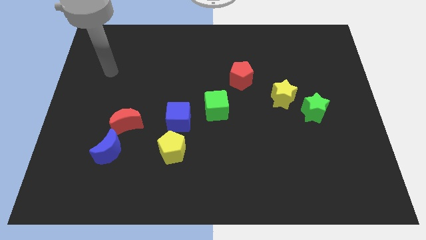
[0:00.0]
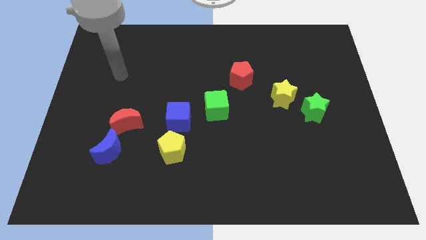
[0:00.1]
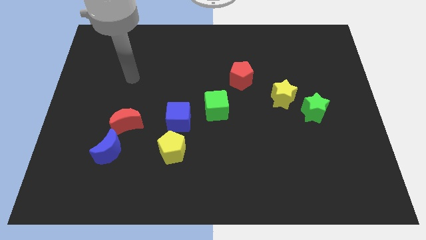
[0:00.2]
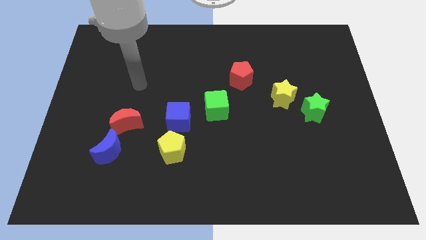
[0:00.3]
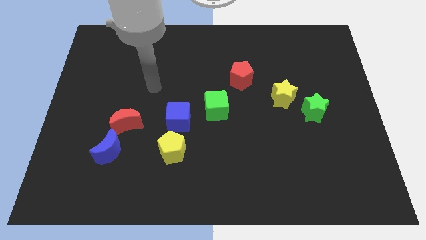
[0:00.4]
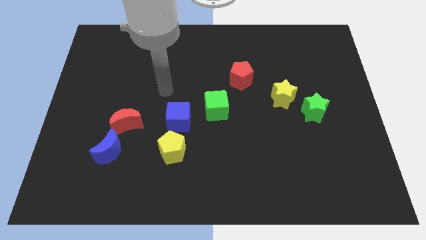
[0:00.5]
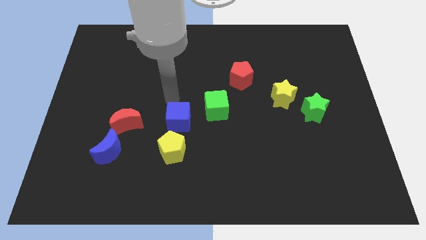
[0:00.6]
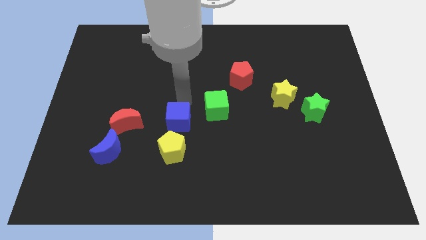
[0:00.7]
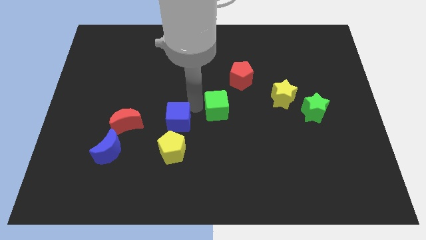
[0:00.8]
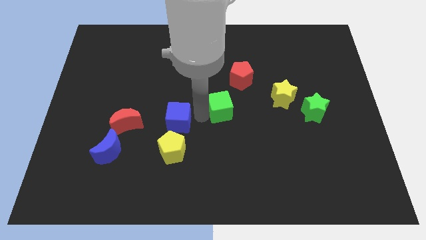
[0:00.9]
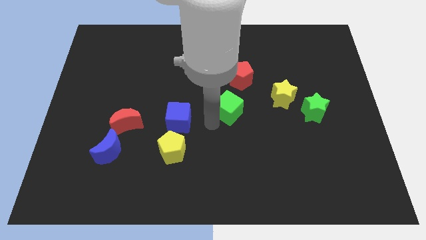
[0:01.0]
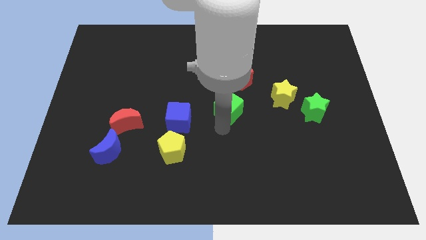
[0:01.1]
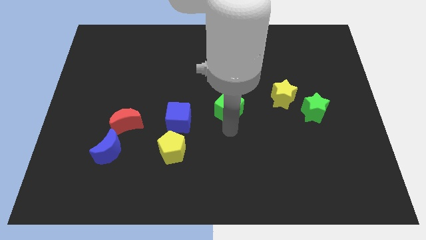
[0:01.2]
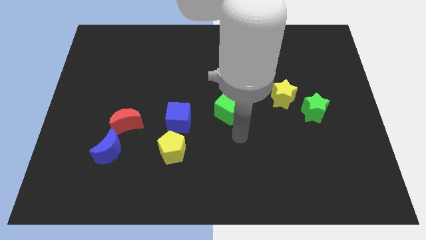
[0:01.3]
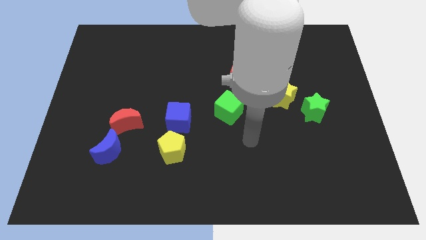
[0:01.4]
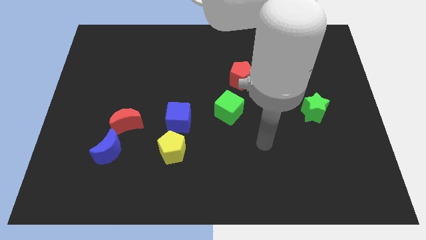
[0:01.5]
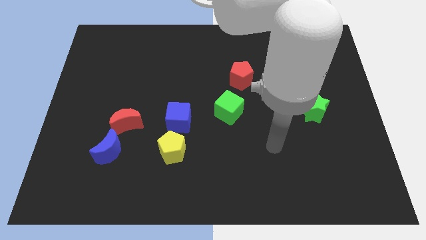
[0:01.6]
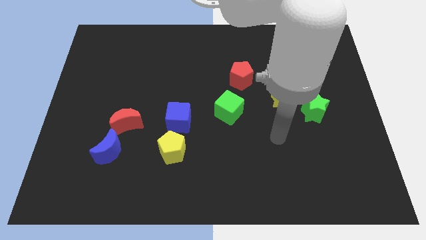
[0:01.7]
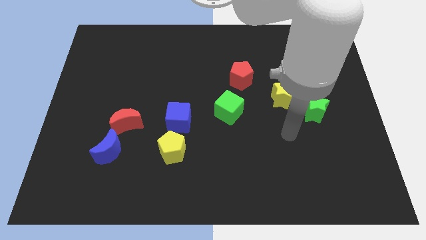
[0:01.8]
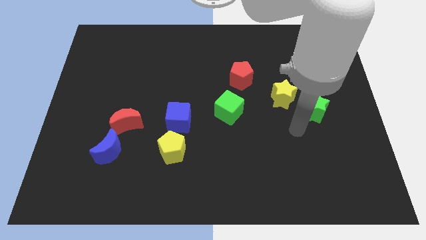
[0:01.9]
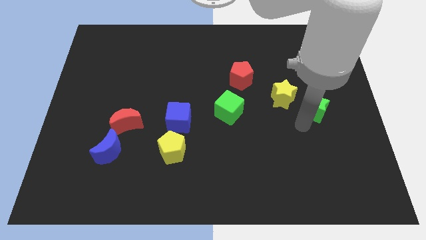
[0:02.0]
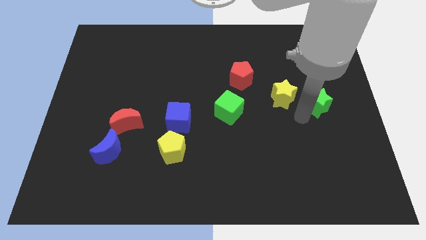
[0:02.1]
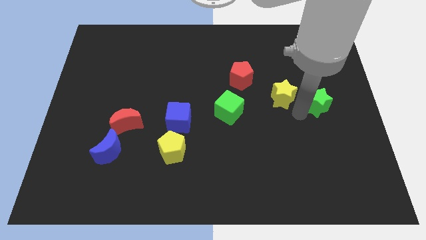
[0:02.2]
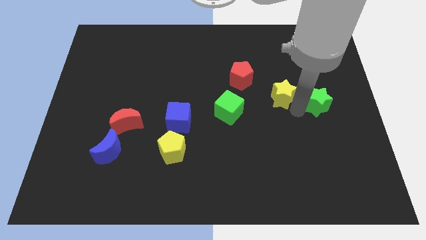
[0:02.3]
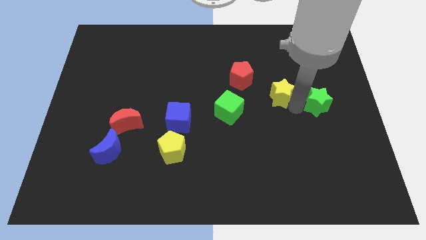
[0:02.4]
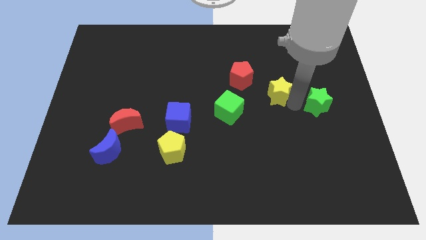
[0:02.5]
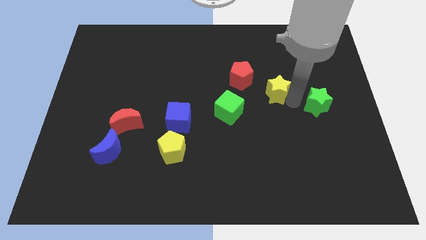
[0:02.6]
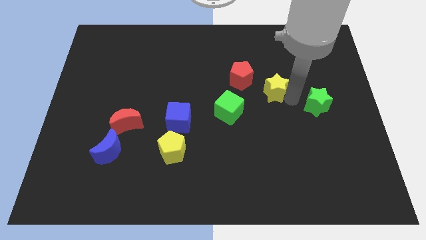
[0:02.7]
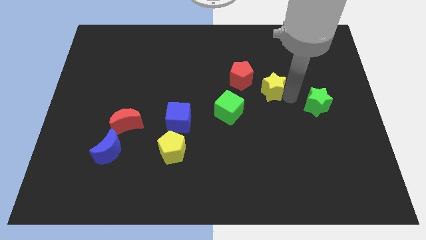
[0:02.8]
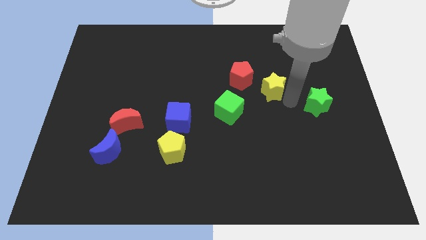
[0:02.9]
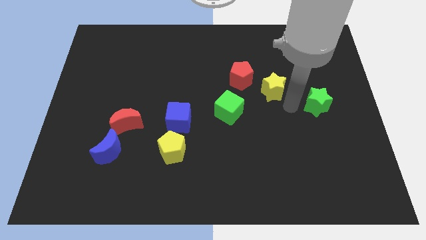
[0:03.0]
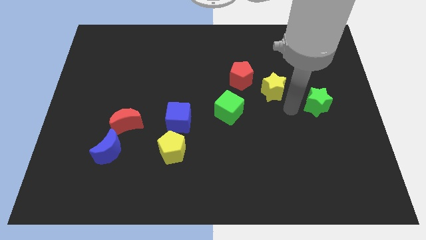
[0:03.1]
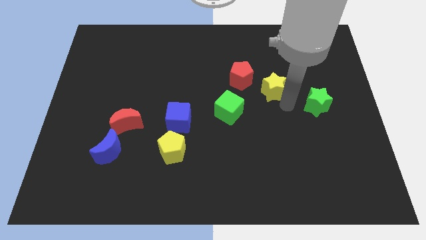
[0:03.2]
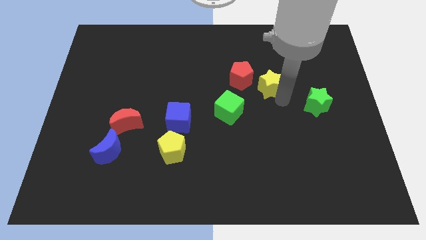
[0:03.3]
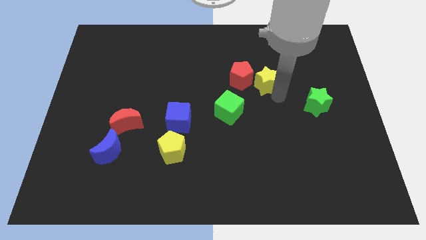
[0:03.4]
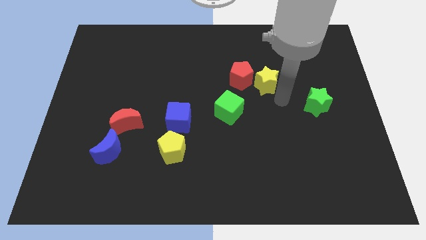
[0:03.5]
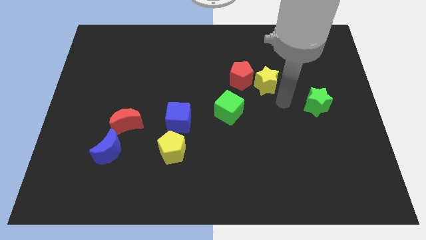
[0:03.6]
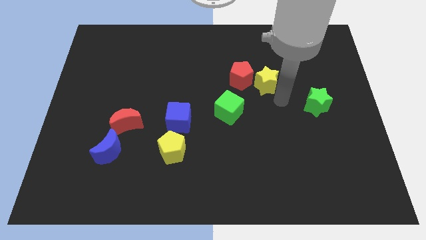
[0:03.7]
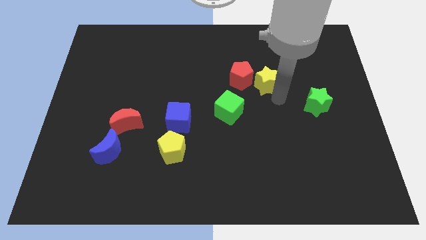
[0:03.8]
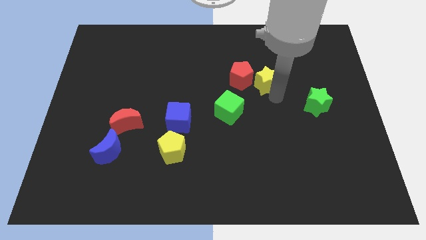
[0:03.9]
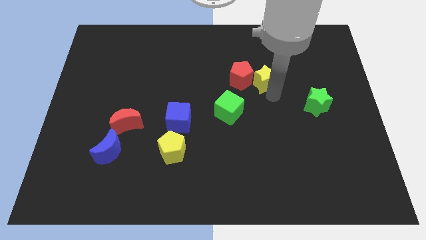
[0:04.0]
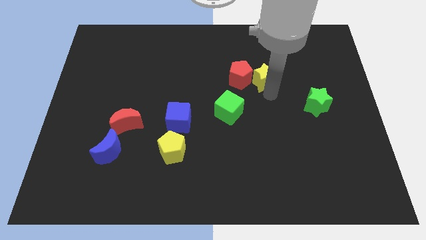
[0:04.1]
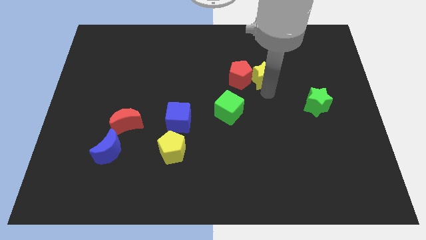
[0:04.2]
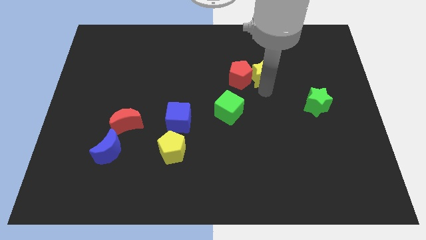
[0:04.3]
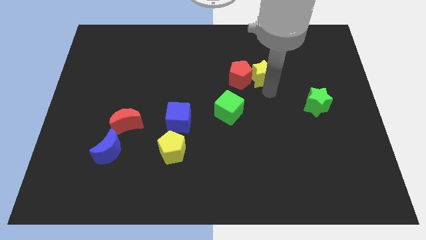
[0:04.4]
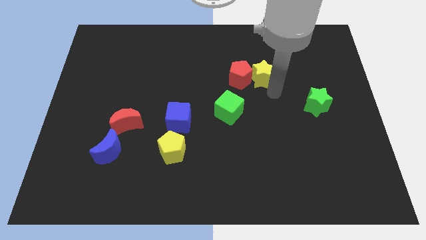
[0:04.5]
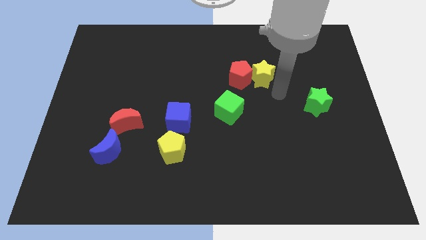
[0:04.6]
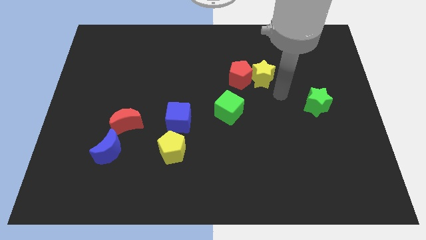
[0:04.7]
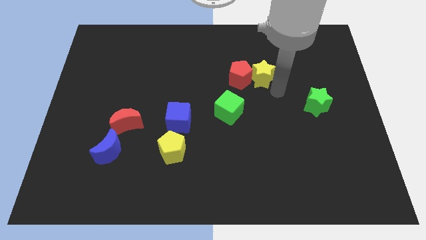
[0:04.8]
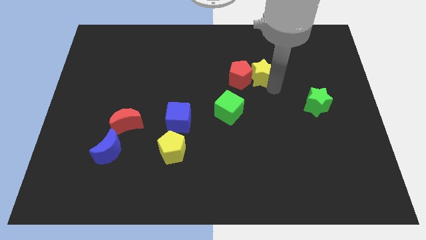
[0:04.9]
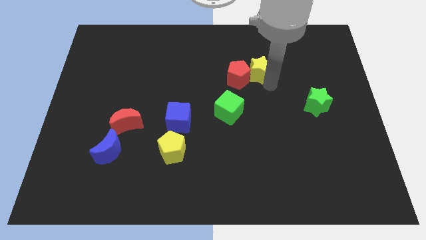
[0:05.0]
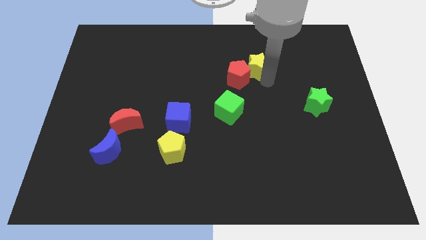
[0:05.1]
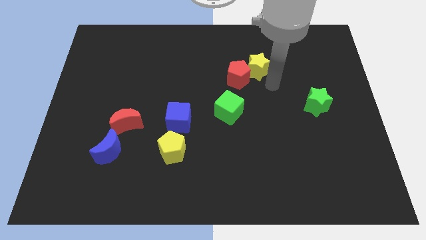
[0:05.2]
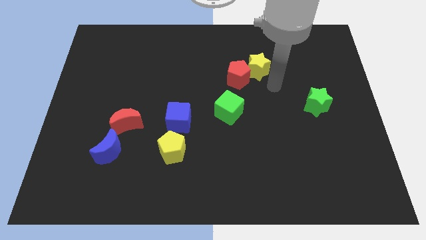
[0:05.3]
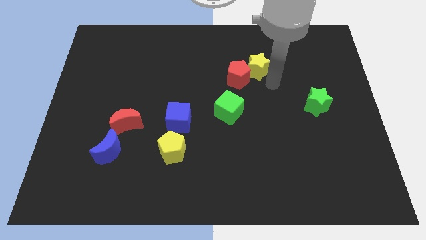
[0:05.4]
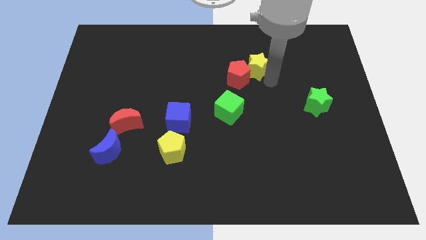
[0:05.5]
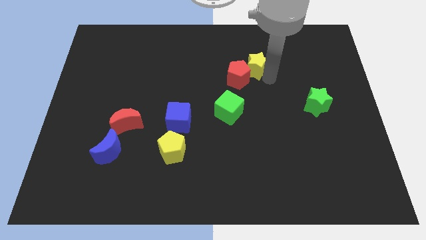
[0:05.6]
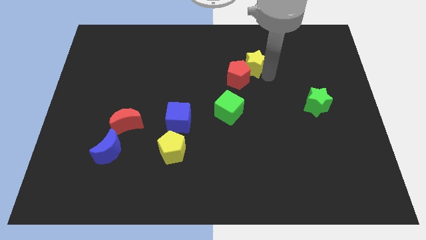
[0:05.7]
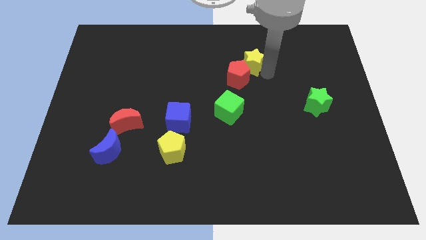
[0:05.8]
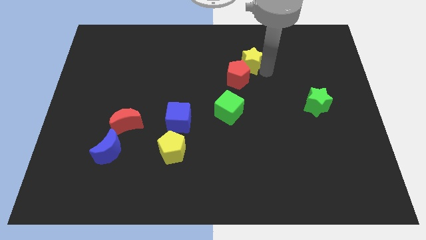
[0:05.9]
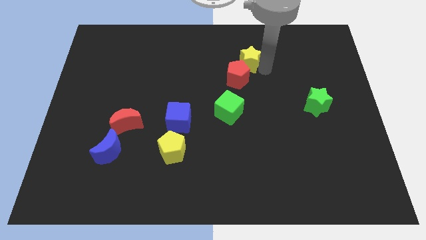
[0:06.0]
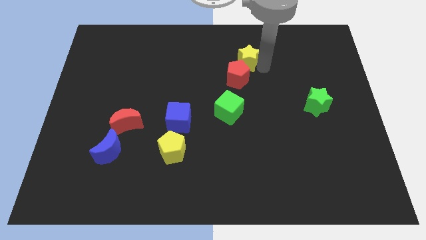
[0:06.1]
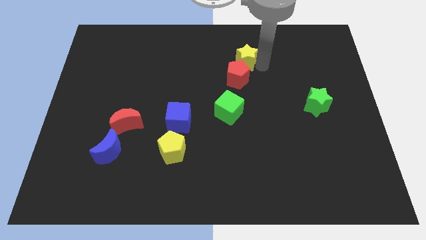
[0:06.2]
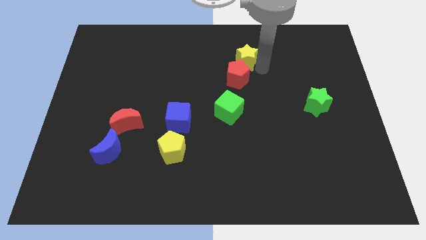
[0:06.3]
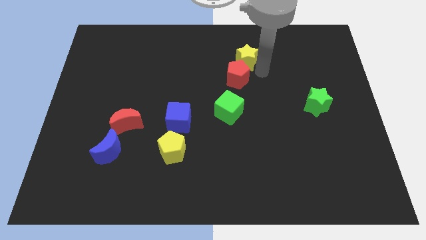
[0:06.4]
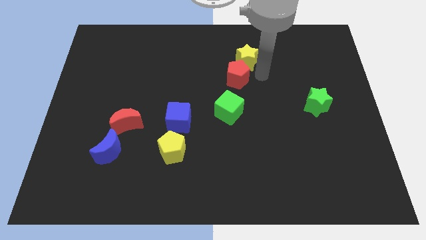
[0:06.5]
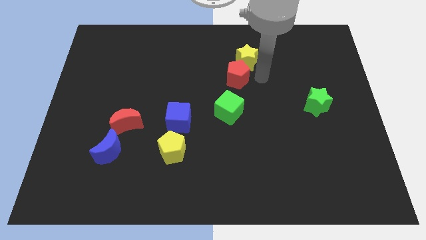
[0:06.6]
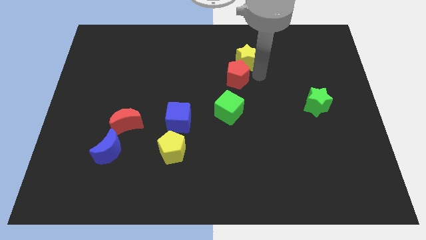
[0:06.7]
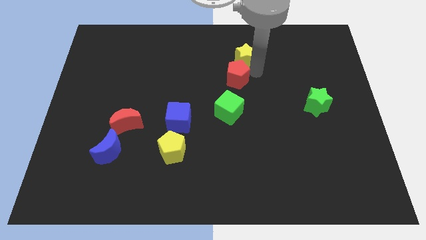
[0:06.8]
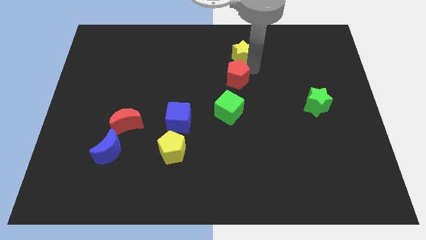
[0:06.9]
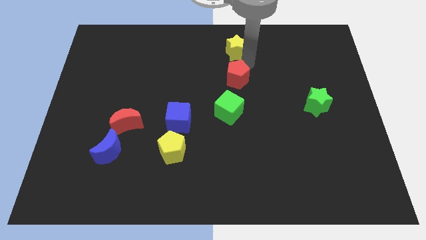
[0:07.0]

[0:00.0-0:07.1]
put the yellow star to the towards your base

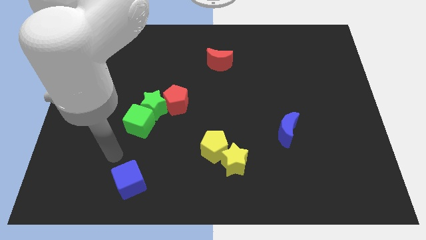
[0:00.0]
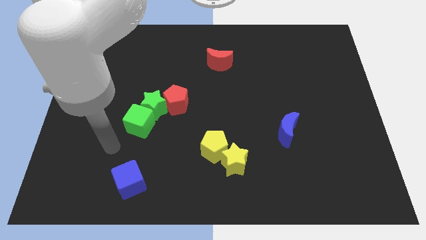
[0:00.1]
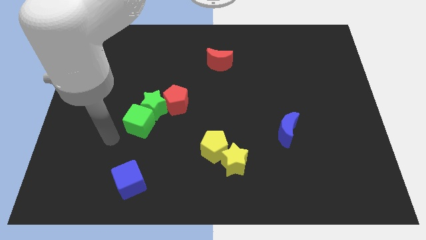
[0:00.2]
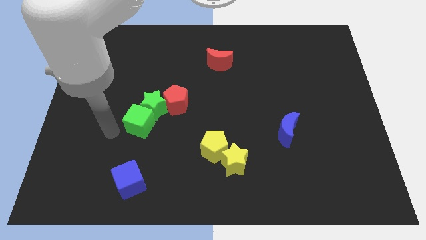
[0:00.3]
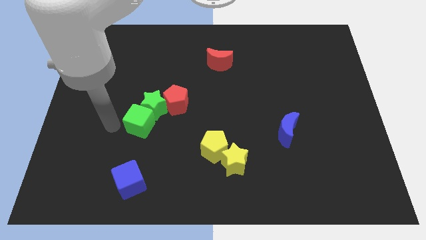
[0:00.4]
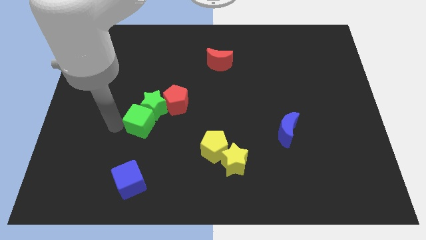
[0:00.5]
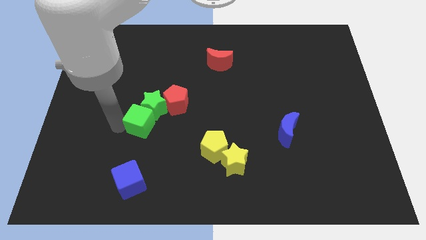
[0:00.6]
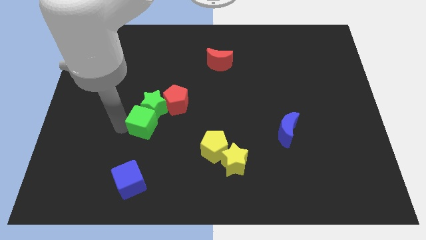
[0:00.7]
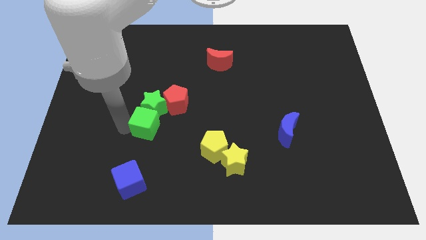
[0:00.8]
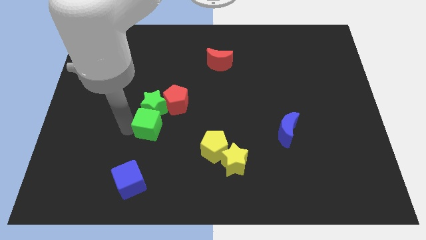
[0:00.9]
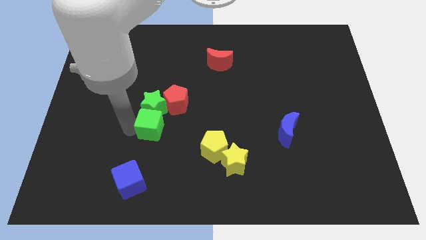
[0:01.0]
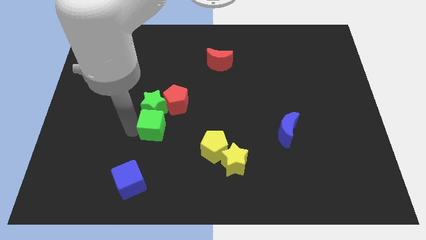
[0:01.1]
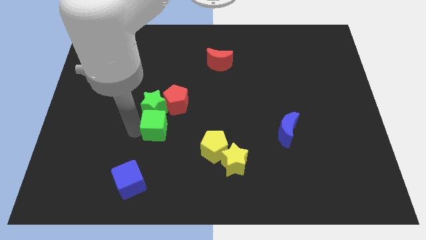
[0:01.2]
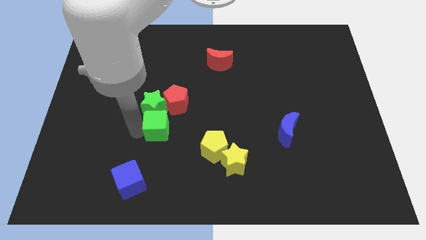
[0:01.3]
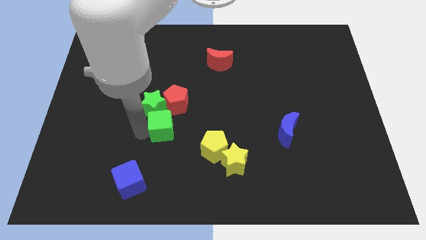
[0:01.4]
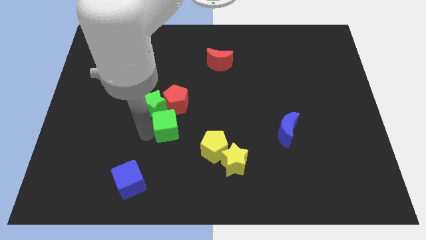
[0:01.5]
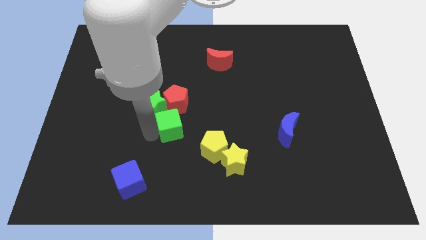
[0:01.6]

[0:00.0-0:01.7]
push the green cube to the center
